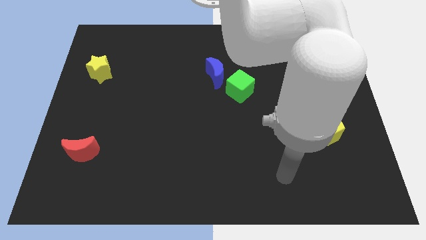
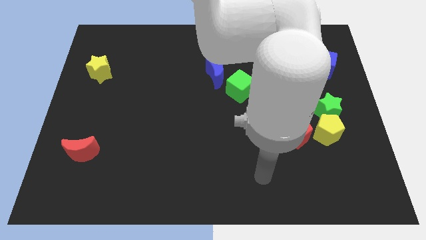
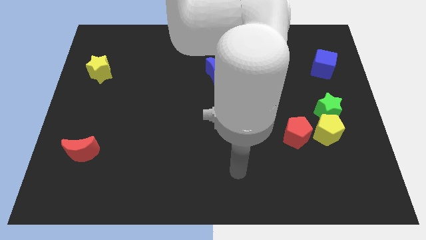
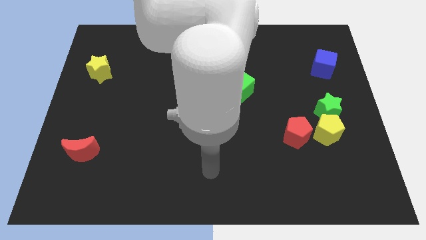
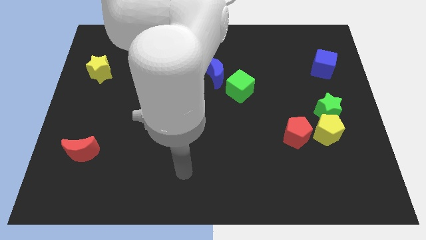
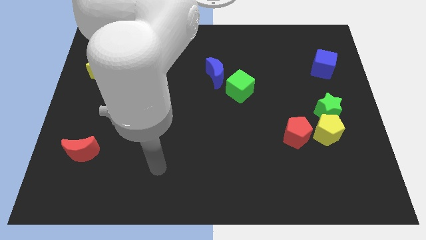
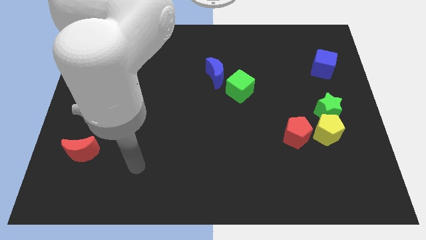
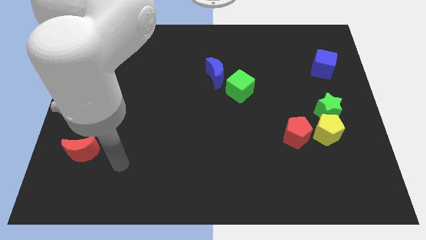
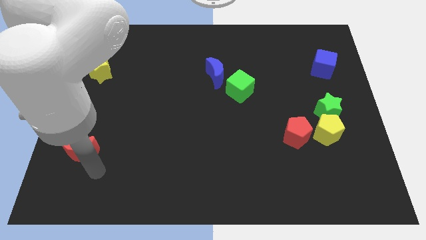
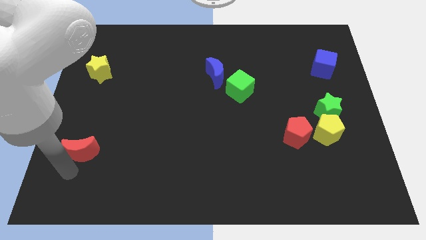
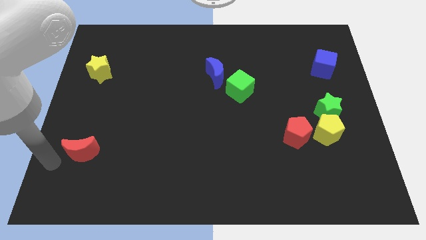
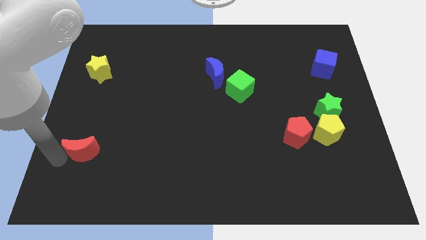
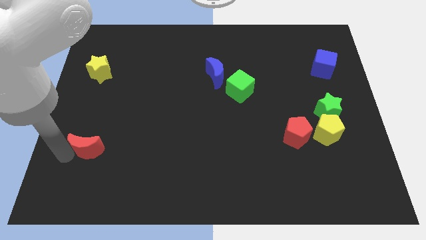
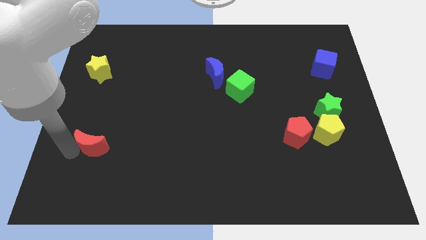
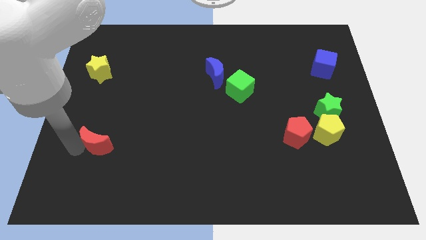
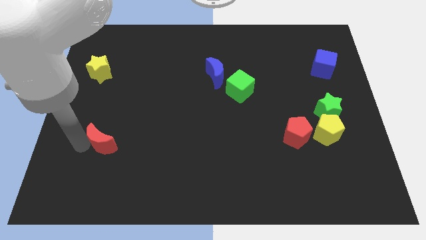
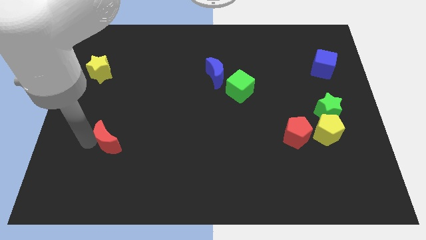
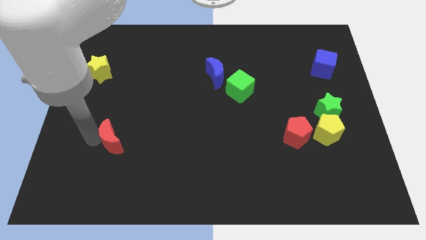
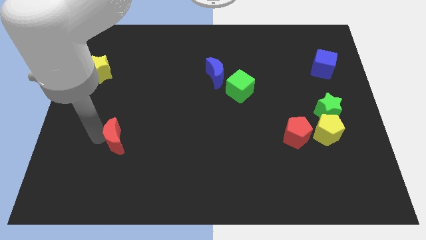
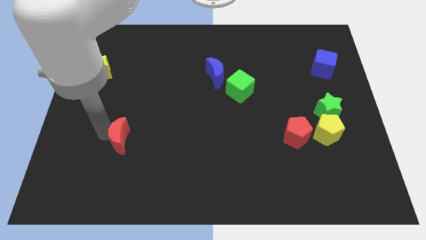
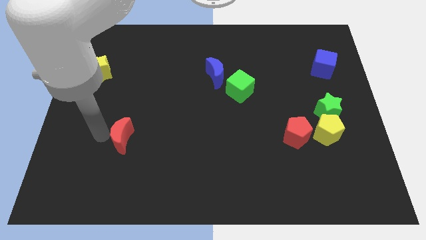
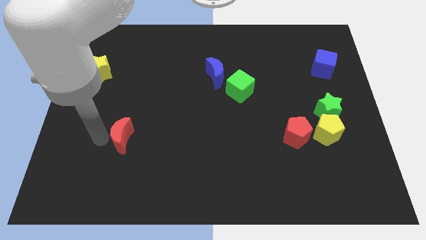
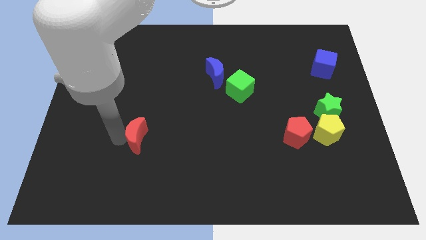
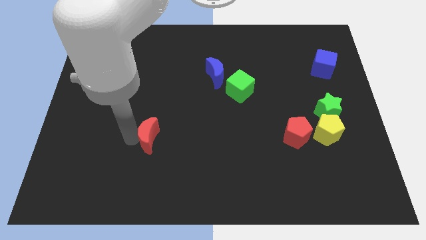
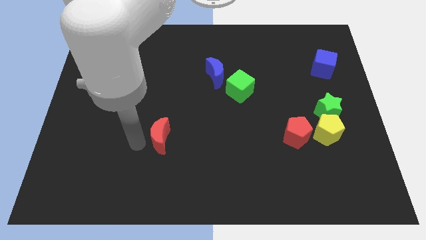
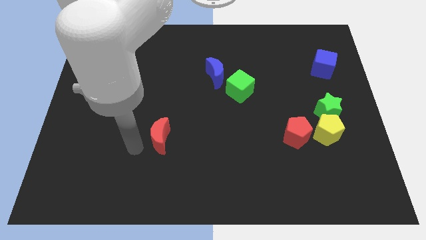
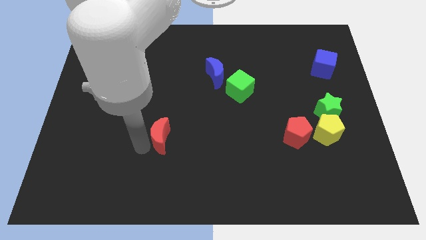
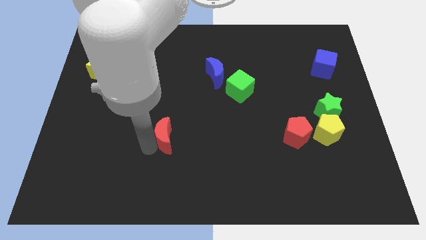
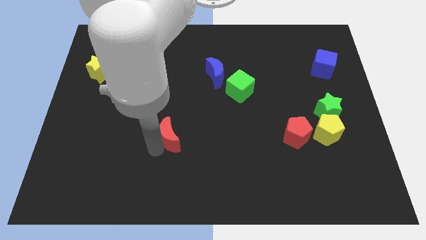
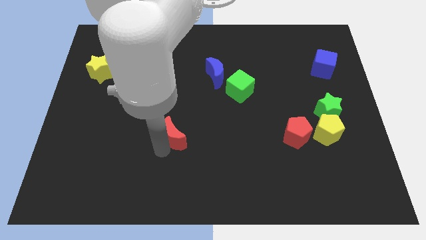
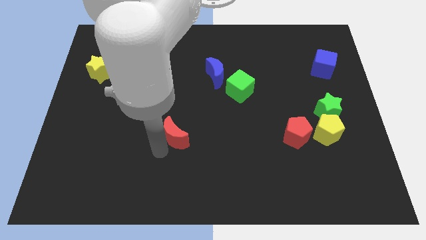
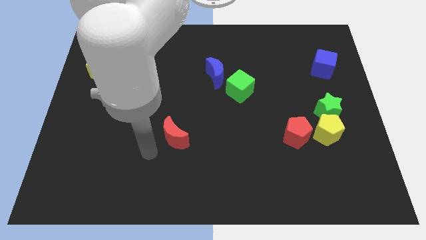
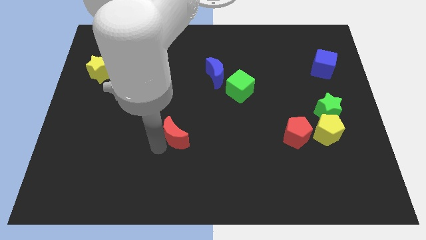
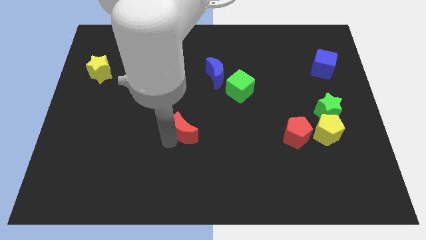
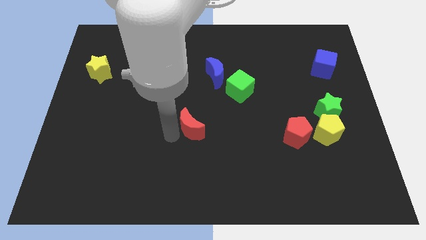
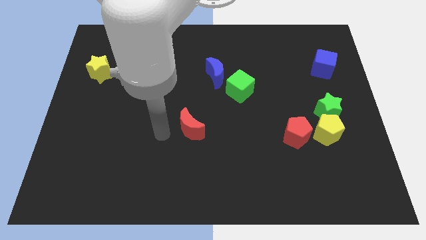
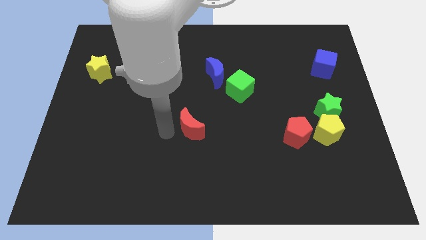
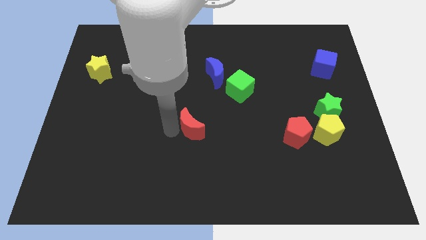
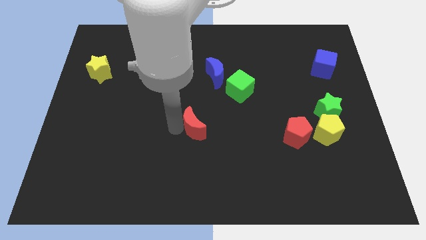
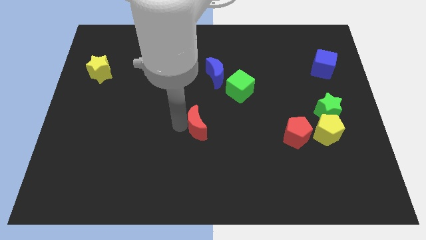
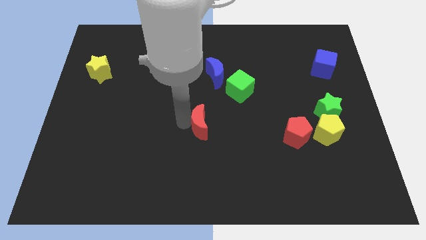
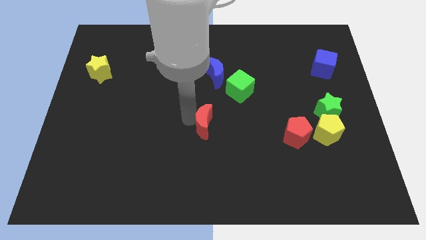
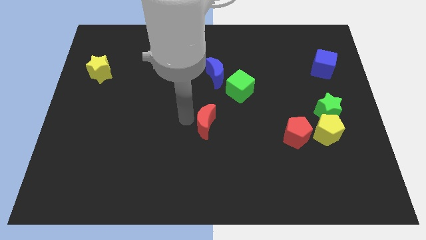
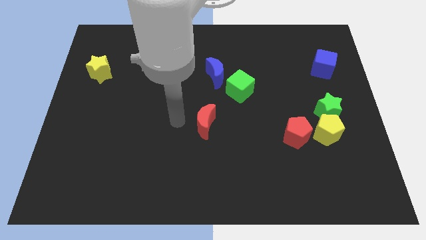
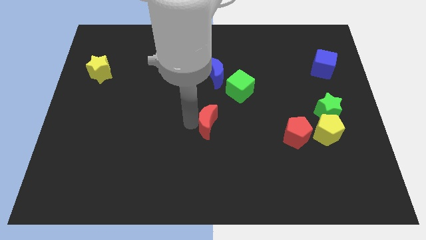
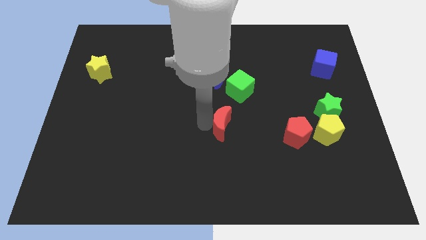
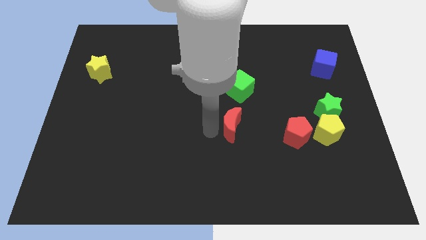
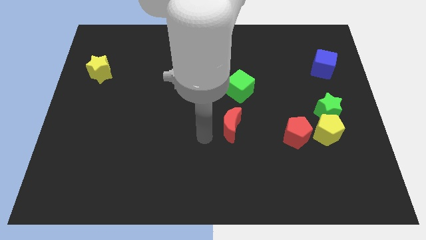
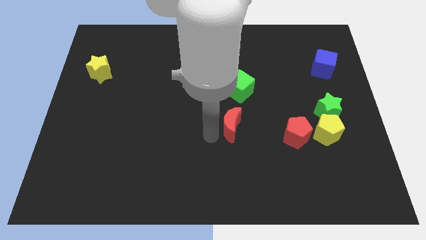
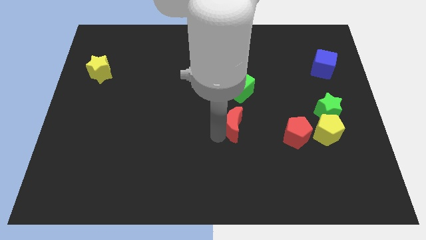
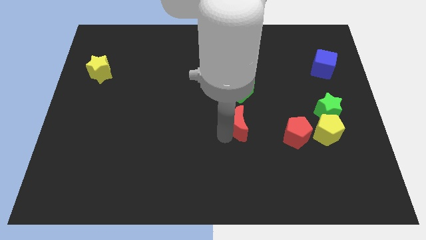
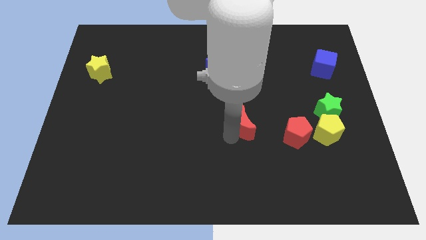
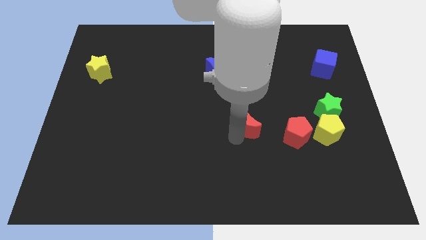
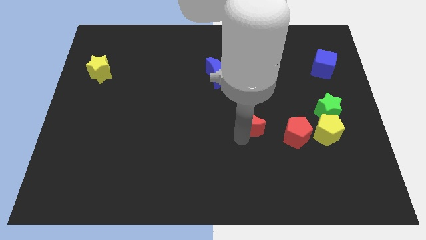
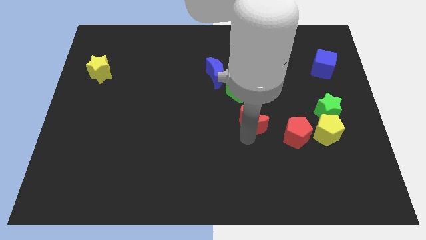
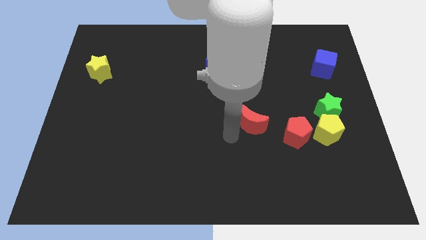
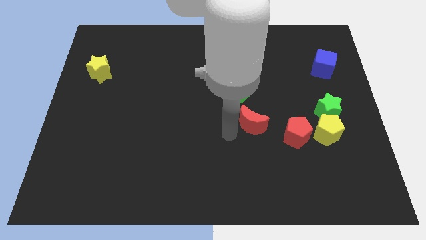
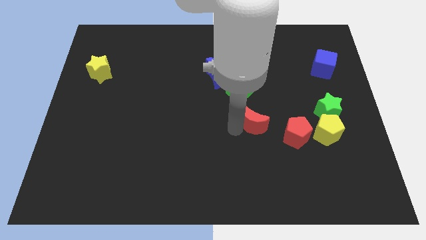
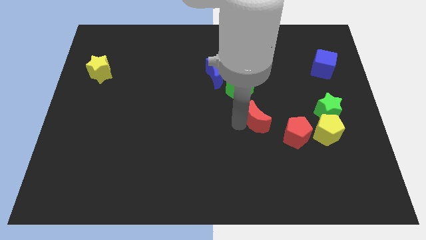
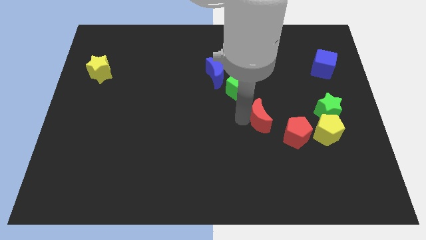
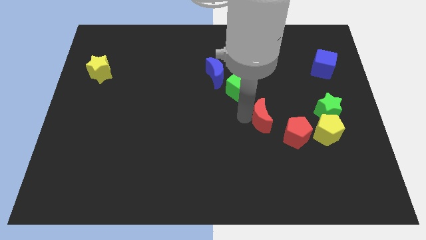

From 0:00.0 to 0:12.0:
push the red moon left of the green star

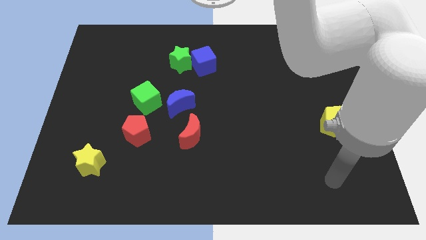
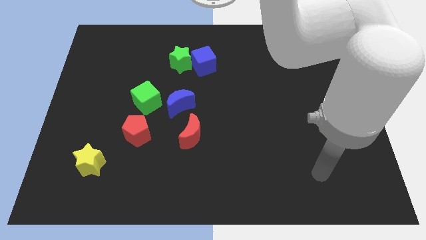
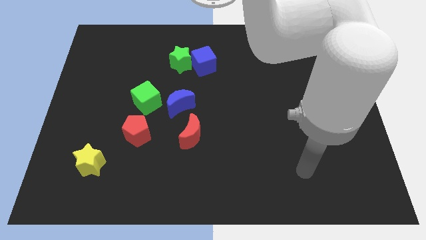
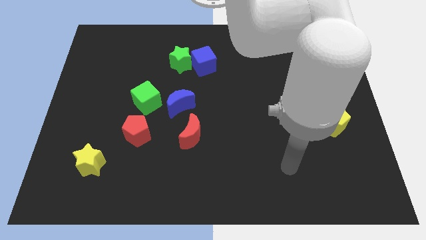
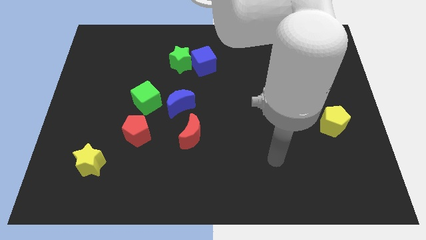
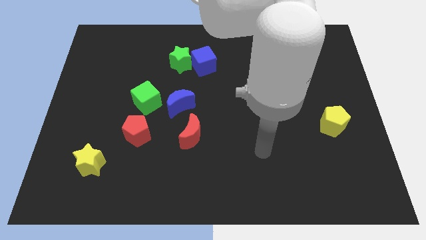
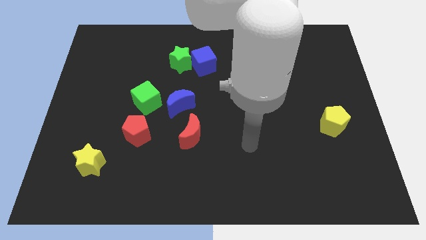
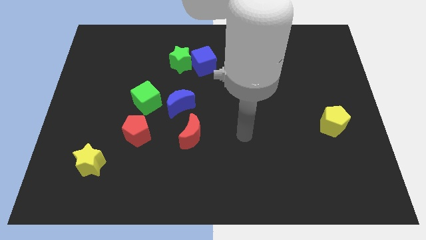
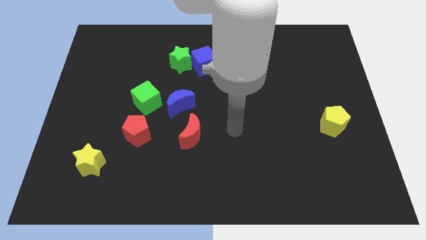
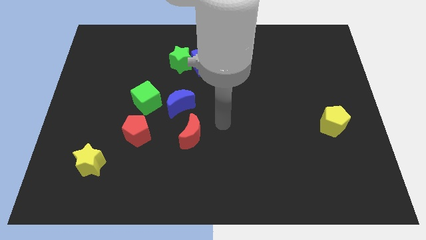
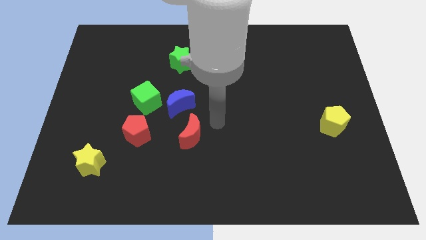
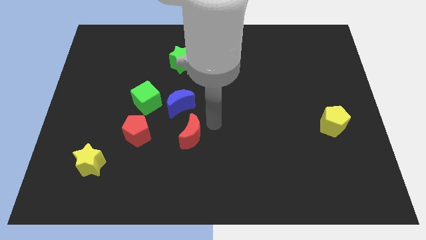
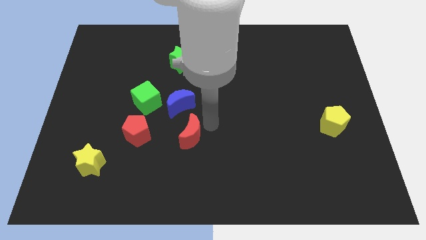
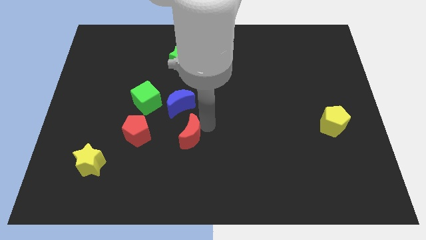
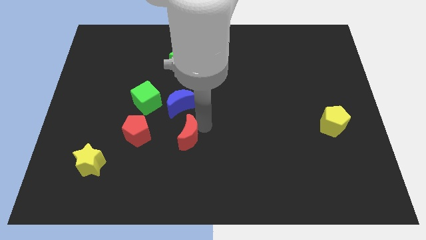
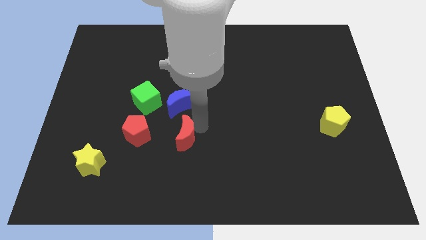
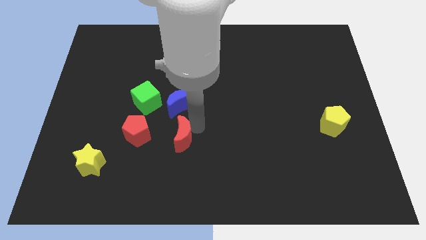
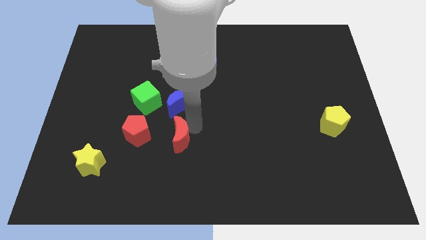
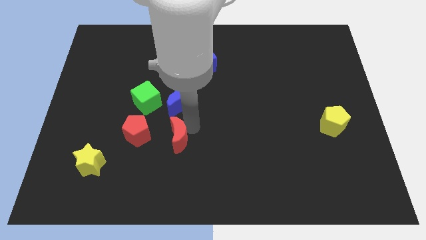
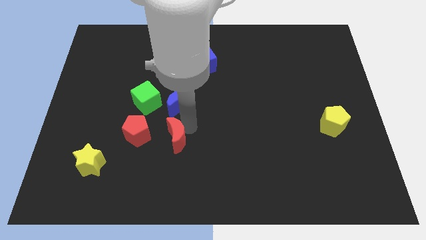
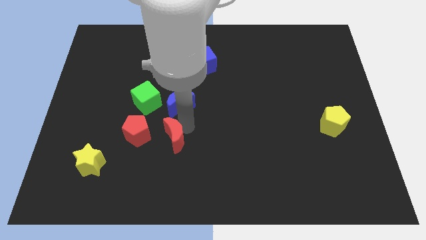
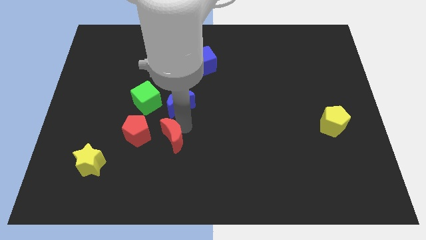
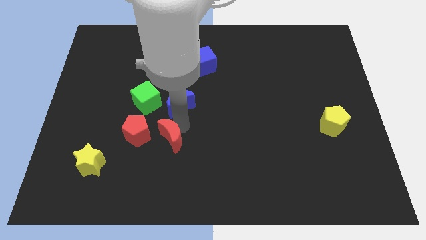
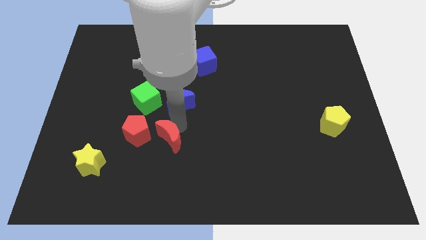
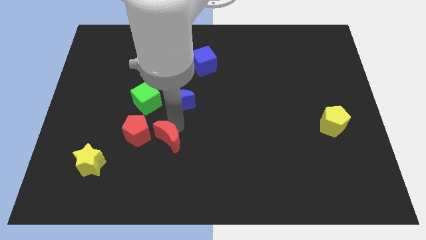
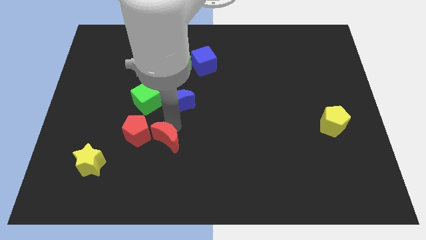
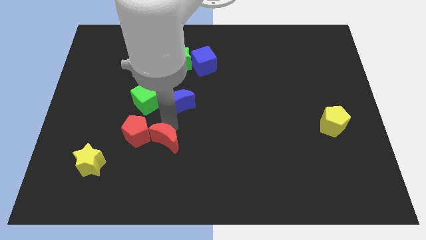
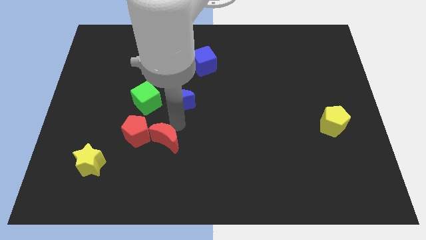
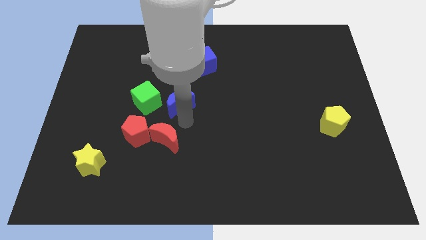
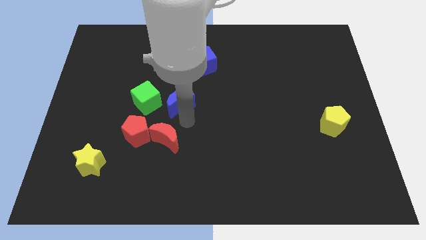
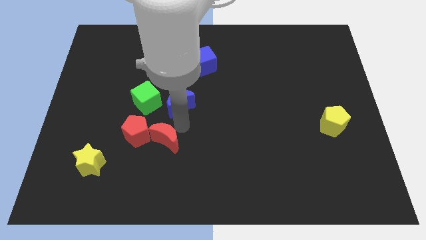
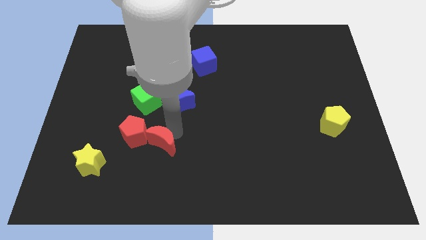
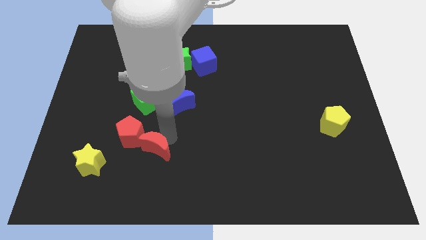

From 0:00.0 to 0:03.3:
push the red moon to the right side of the yellow star
